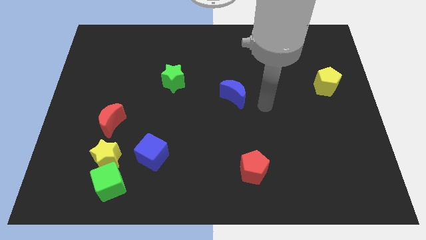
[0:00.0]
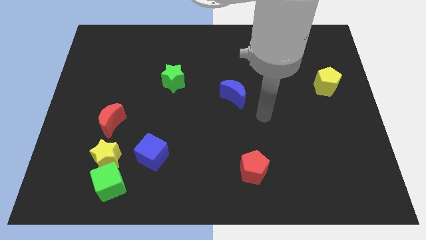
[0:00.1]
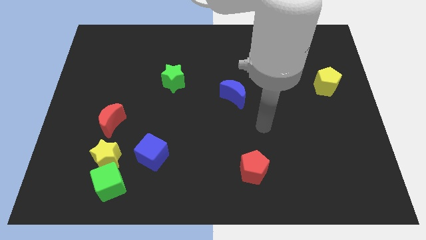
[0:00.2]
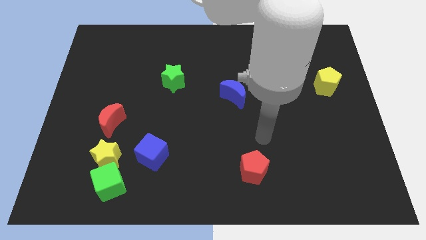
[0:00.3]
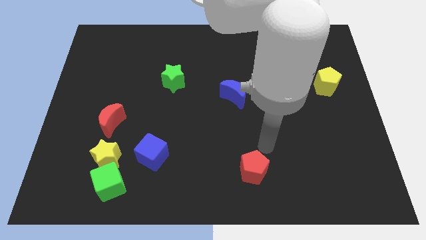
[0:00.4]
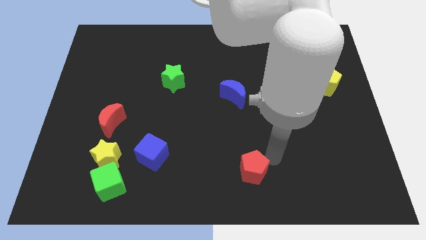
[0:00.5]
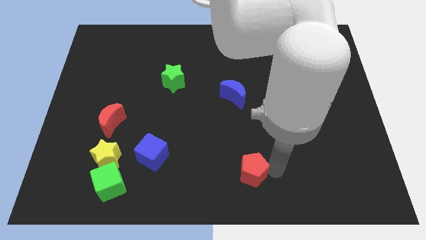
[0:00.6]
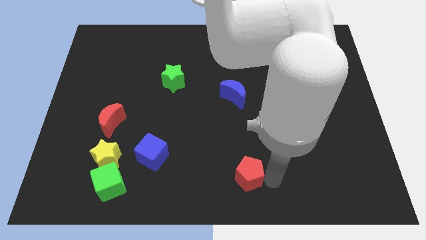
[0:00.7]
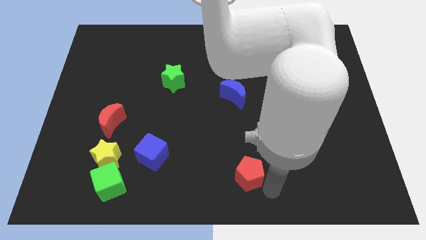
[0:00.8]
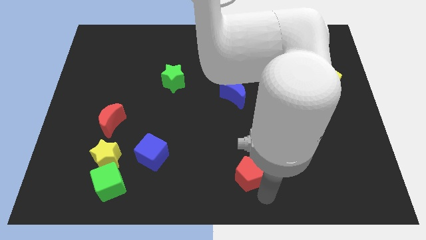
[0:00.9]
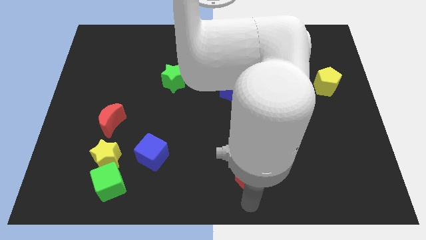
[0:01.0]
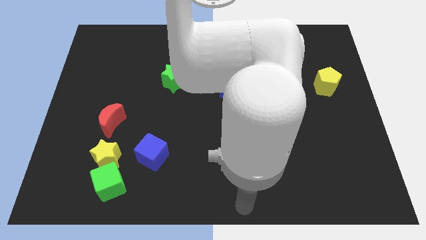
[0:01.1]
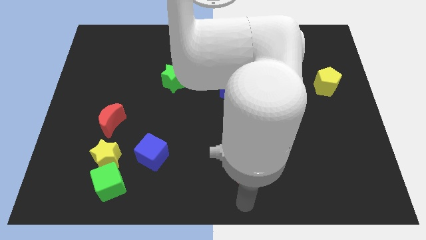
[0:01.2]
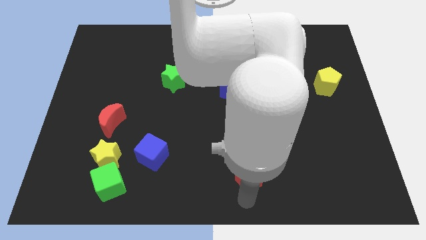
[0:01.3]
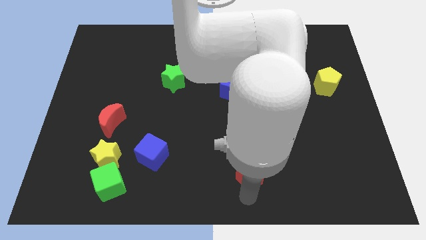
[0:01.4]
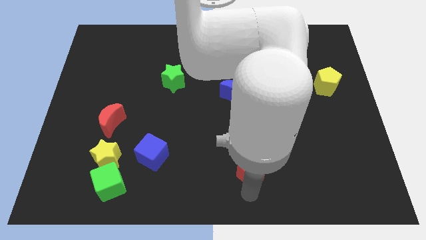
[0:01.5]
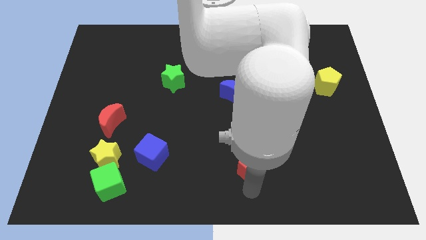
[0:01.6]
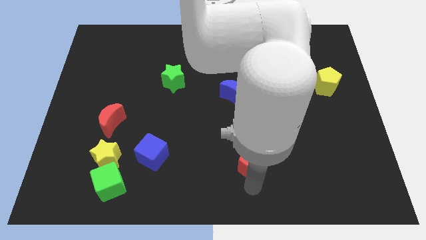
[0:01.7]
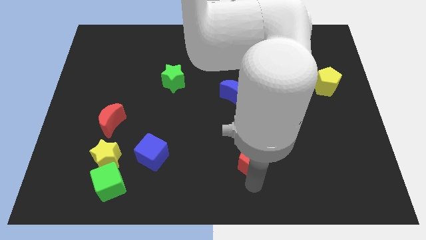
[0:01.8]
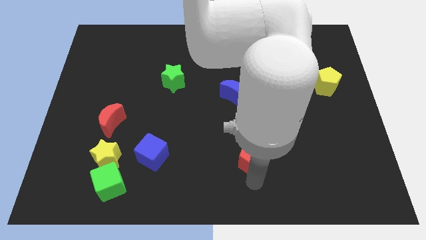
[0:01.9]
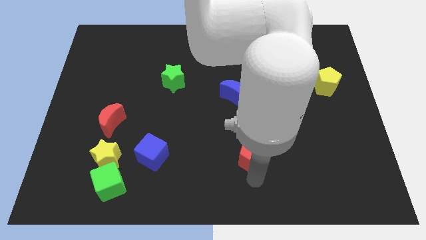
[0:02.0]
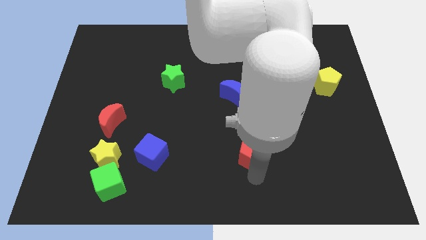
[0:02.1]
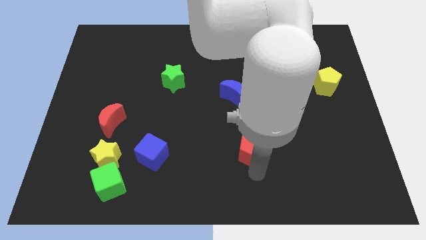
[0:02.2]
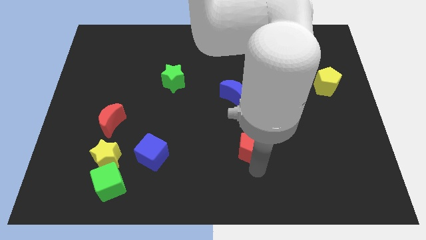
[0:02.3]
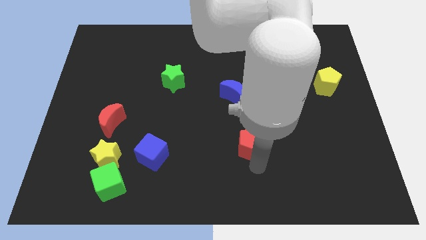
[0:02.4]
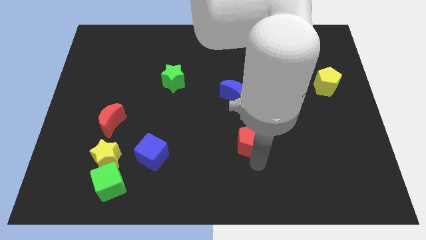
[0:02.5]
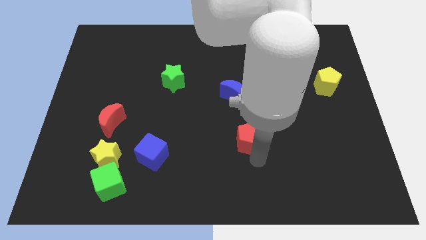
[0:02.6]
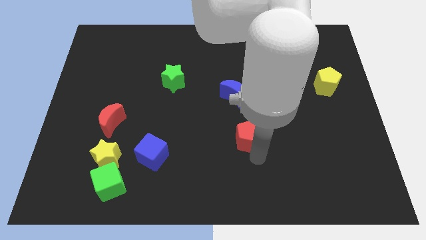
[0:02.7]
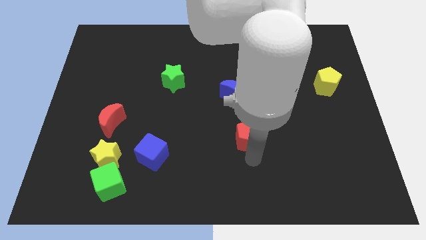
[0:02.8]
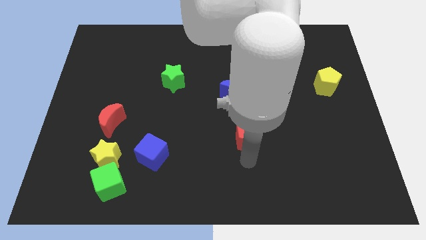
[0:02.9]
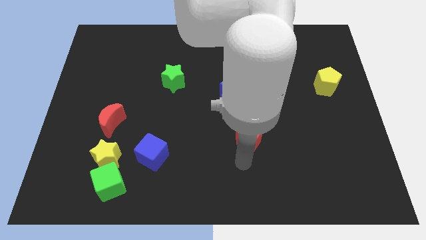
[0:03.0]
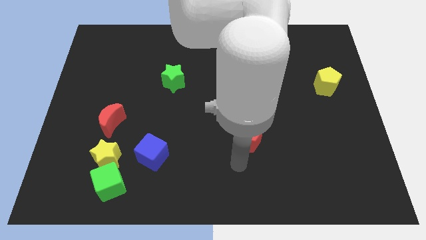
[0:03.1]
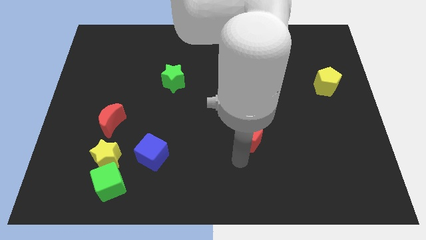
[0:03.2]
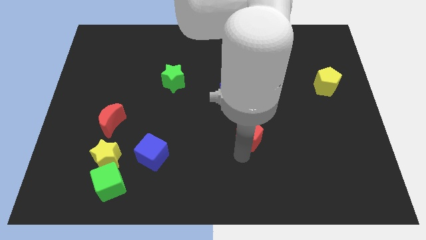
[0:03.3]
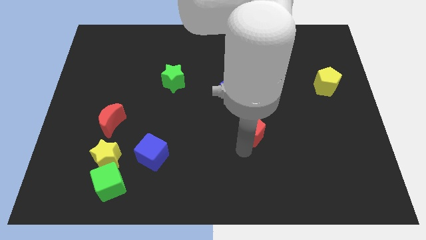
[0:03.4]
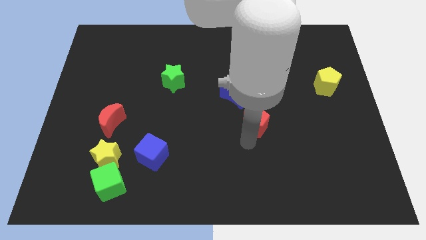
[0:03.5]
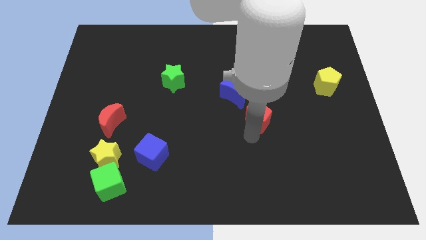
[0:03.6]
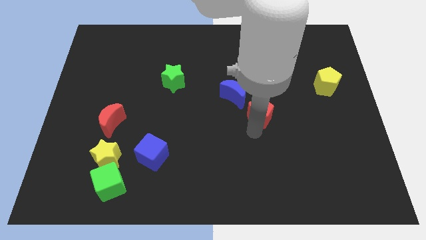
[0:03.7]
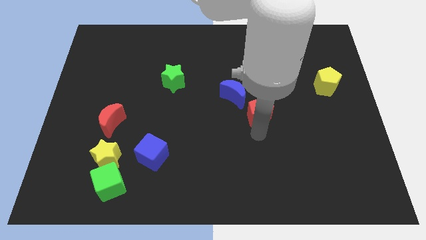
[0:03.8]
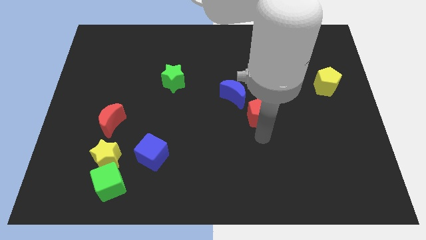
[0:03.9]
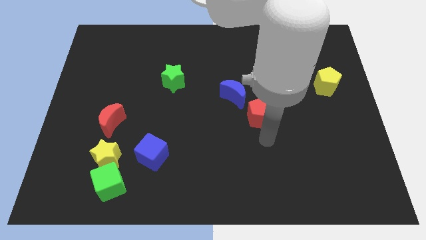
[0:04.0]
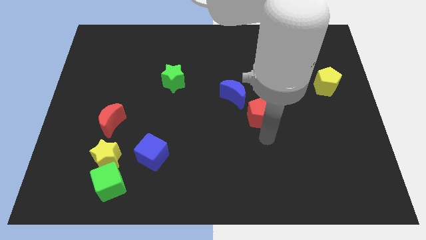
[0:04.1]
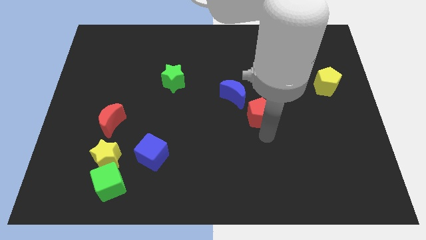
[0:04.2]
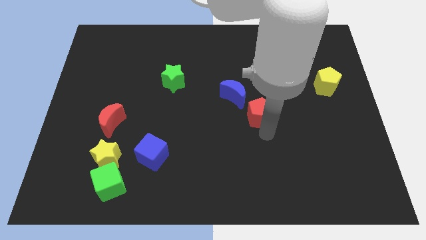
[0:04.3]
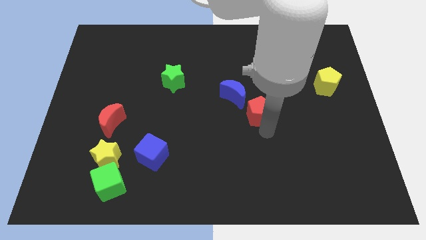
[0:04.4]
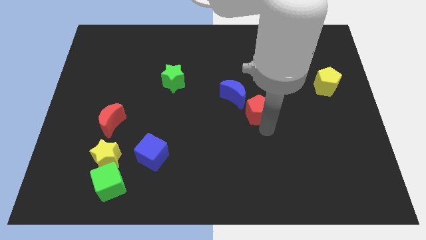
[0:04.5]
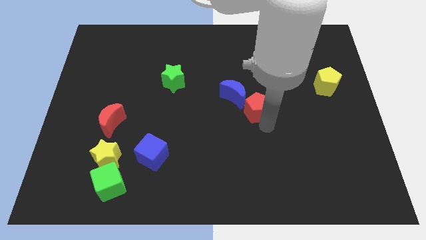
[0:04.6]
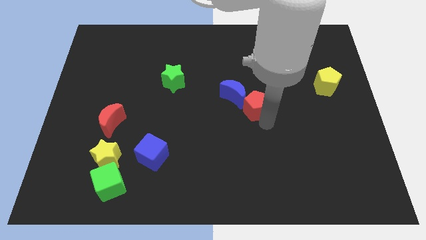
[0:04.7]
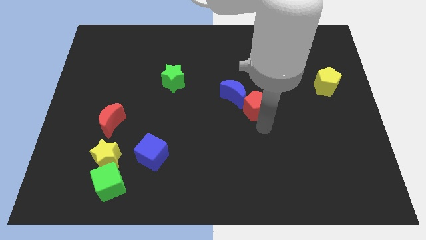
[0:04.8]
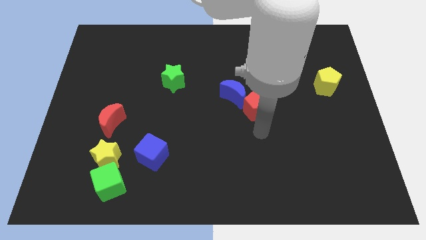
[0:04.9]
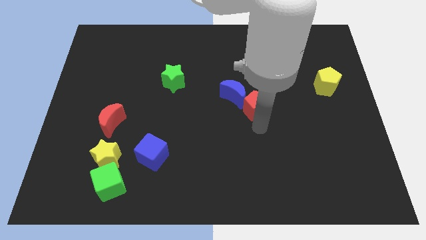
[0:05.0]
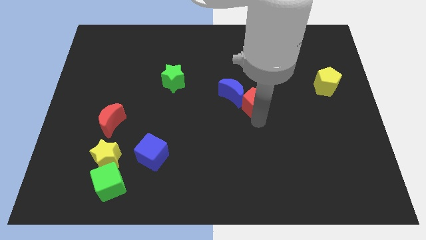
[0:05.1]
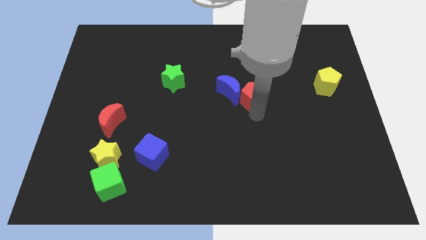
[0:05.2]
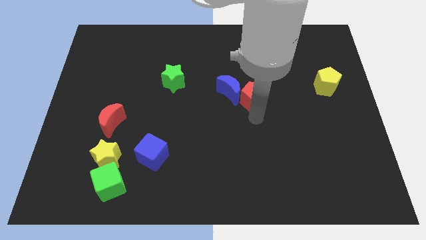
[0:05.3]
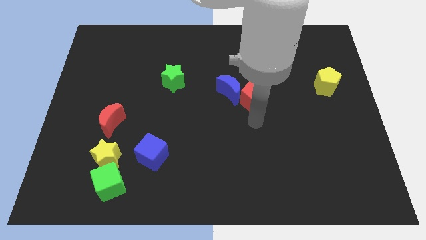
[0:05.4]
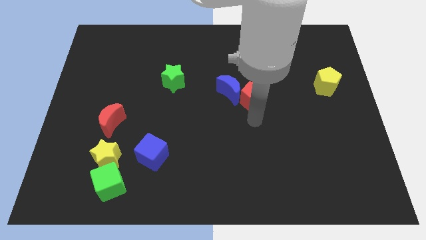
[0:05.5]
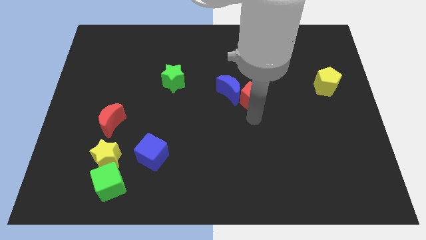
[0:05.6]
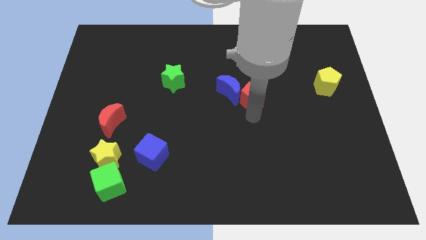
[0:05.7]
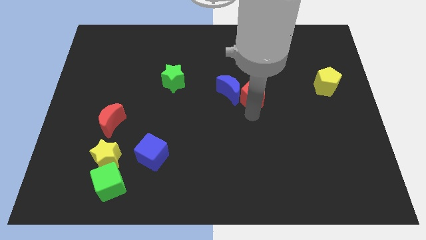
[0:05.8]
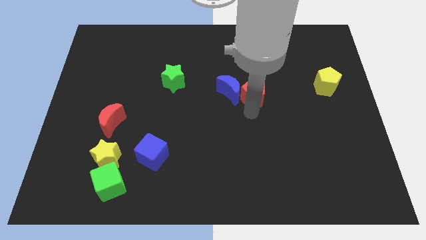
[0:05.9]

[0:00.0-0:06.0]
slide the red pentagon up

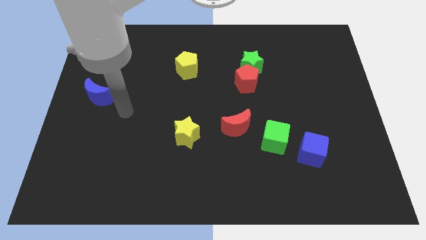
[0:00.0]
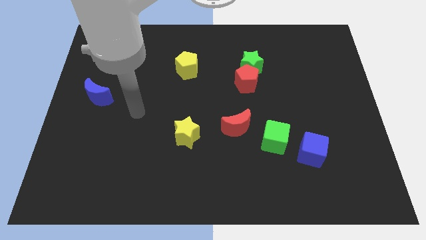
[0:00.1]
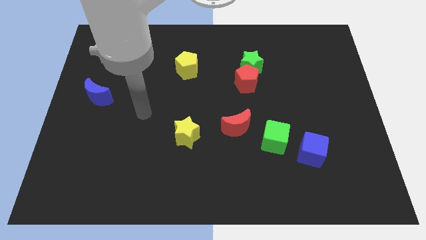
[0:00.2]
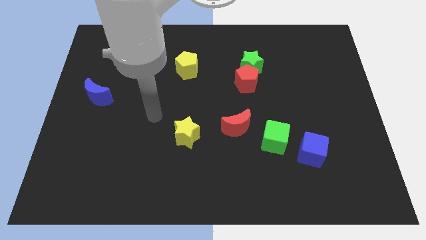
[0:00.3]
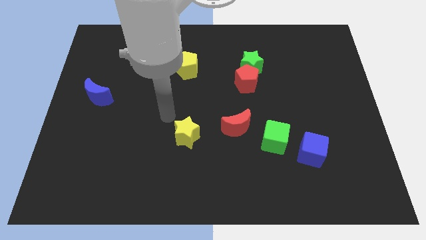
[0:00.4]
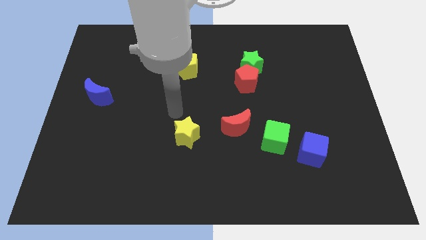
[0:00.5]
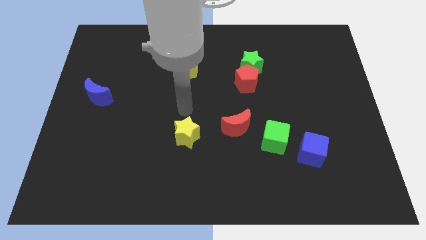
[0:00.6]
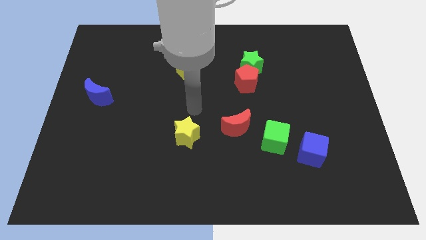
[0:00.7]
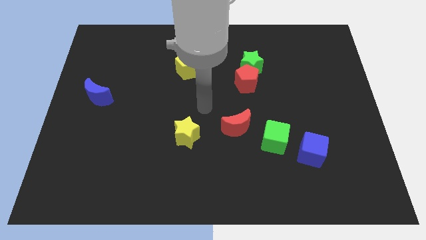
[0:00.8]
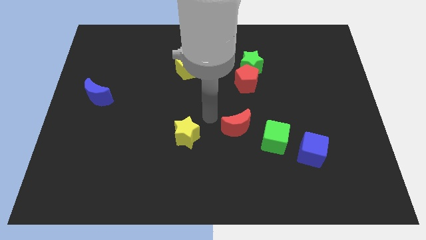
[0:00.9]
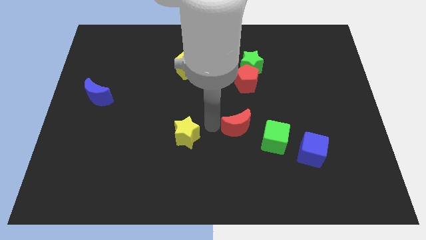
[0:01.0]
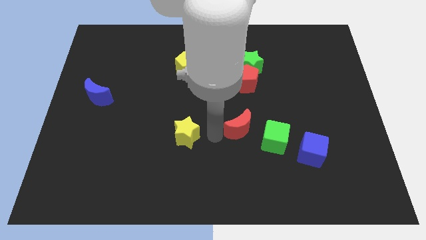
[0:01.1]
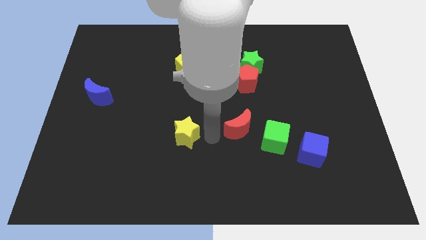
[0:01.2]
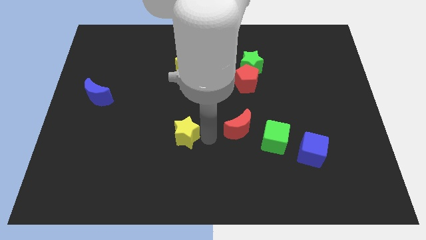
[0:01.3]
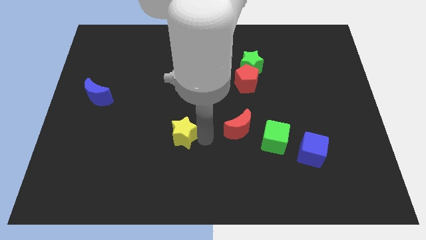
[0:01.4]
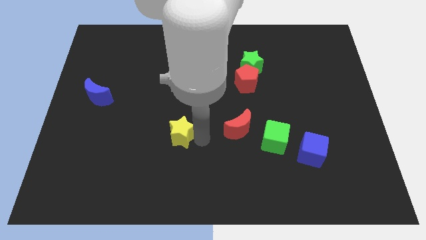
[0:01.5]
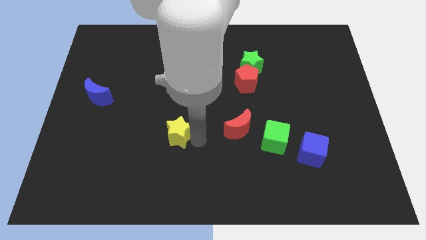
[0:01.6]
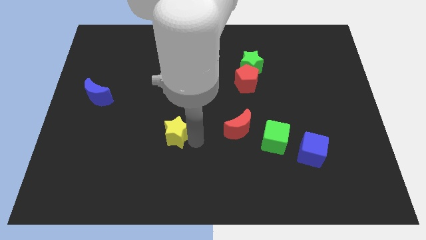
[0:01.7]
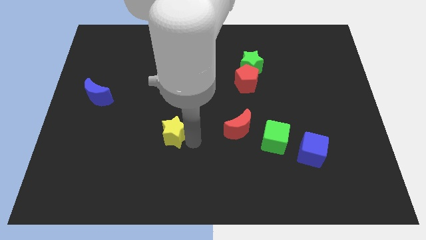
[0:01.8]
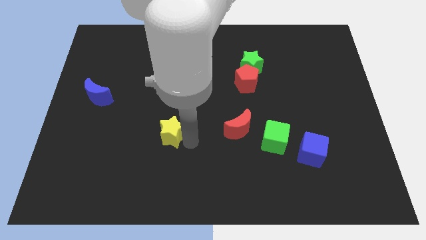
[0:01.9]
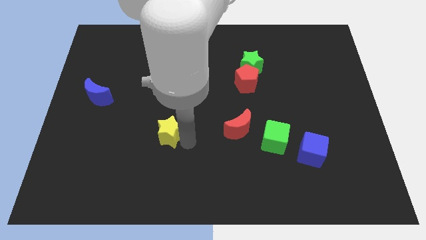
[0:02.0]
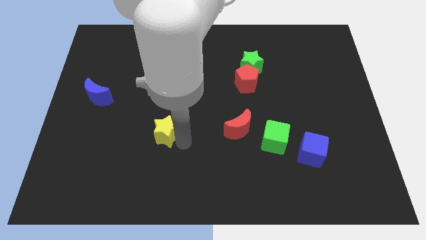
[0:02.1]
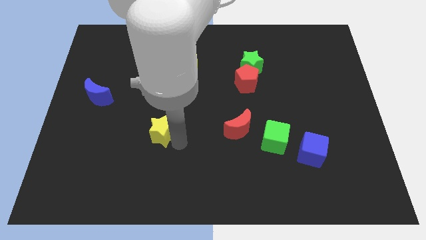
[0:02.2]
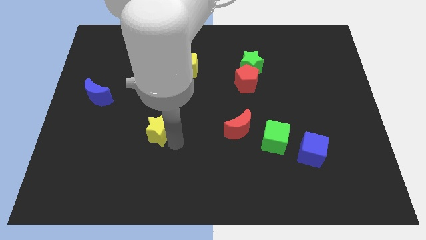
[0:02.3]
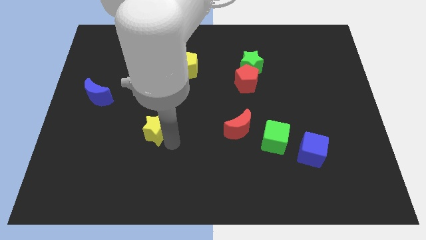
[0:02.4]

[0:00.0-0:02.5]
push the yellow star a bit to the left
